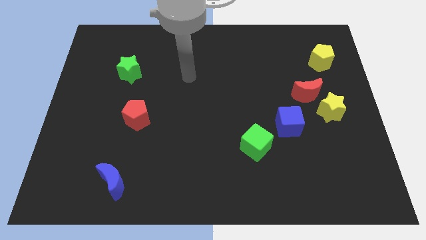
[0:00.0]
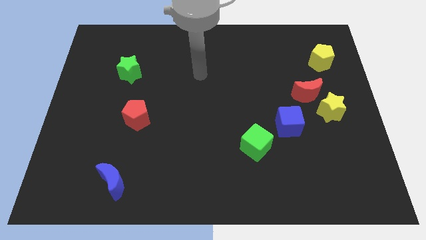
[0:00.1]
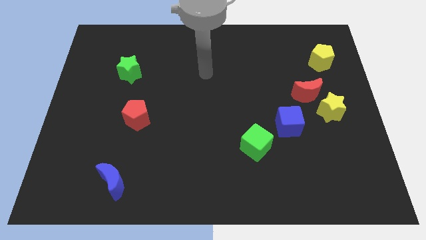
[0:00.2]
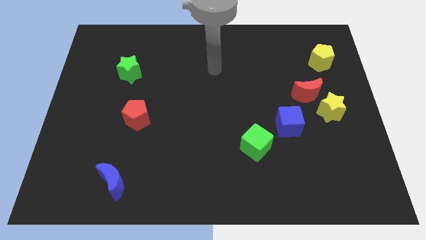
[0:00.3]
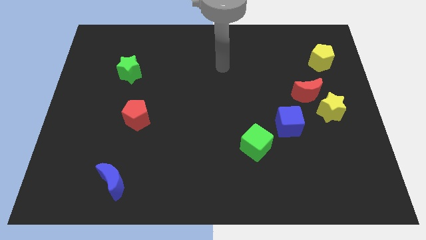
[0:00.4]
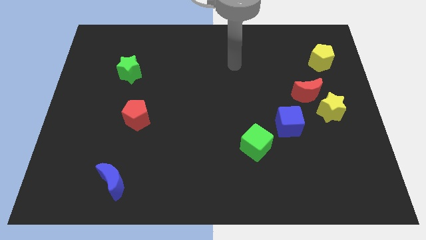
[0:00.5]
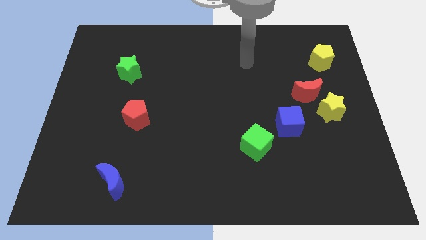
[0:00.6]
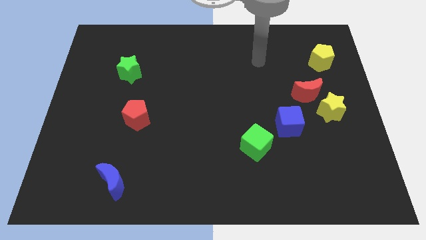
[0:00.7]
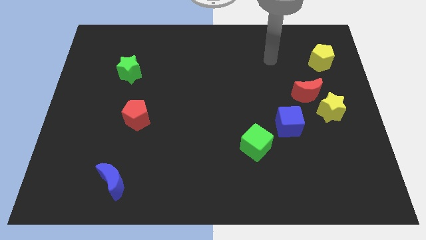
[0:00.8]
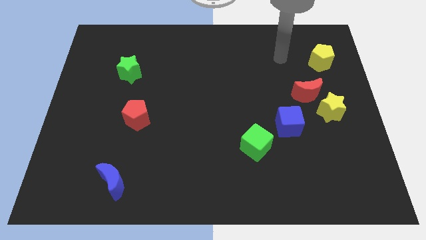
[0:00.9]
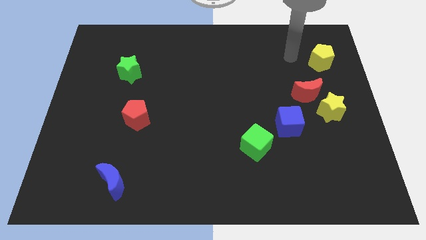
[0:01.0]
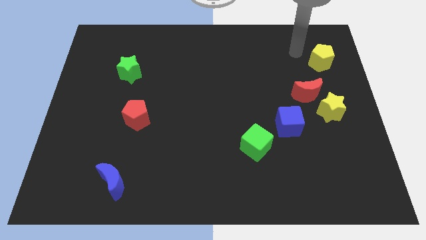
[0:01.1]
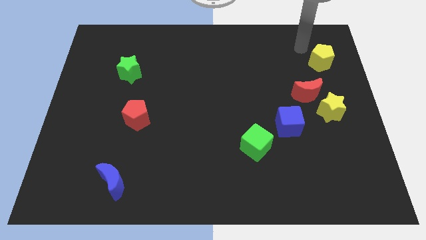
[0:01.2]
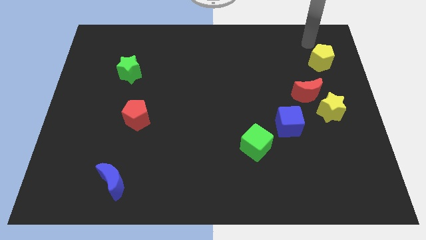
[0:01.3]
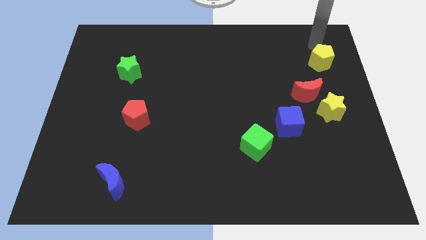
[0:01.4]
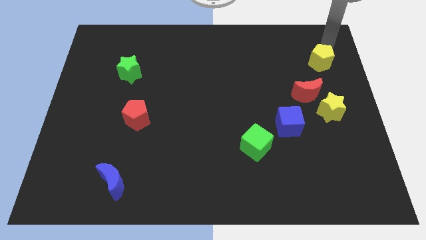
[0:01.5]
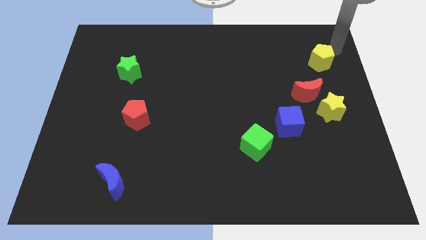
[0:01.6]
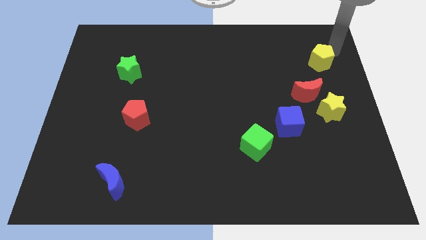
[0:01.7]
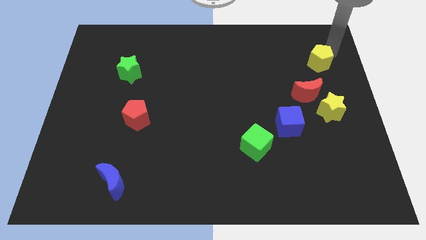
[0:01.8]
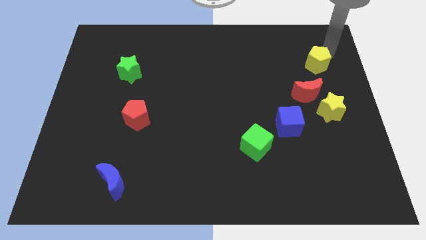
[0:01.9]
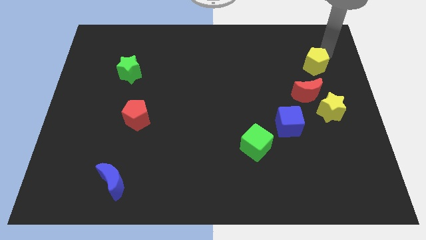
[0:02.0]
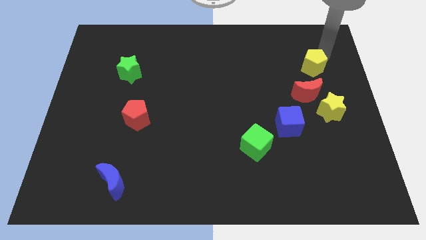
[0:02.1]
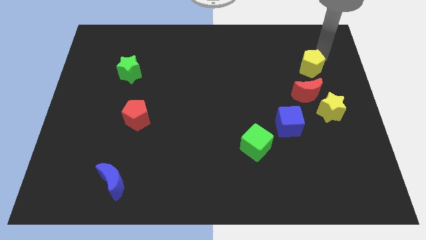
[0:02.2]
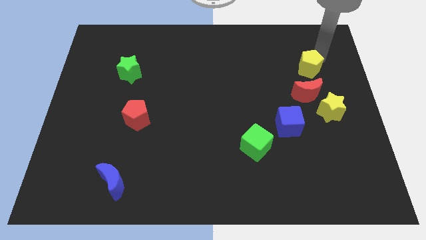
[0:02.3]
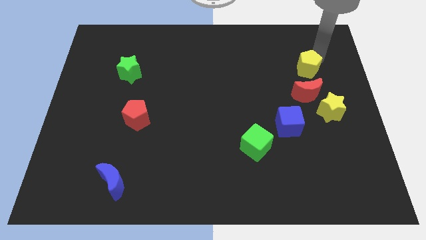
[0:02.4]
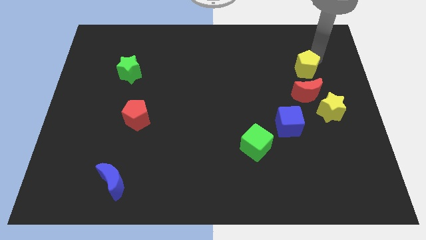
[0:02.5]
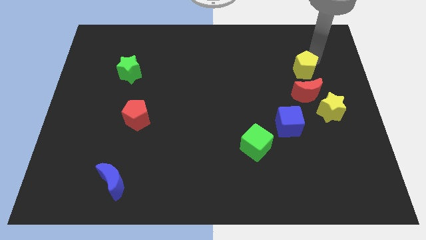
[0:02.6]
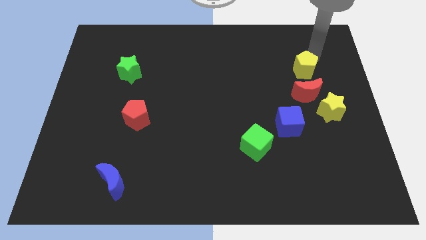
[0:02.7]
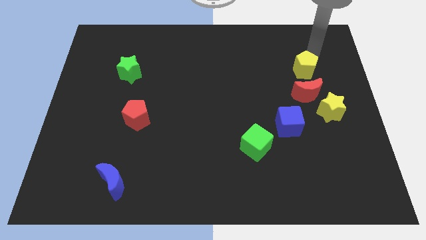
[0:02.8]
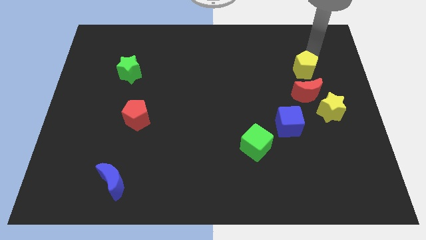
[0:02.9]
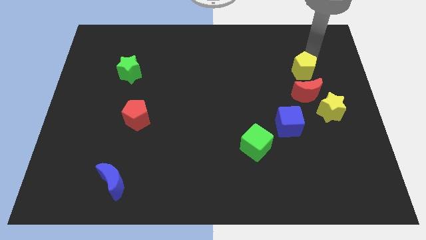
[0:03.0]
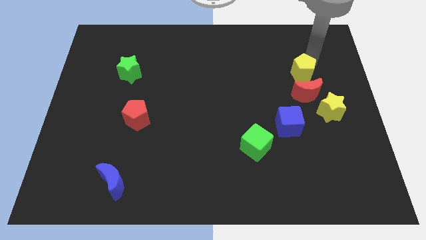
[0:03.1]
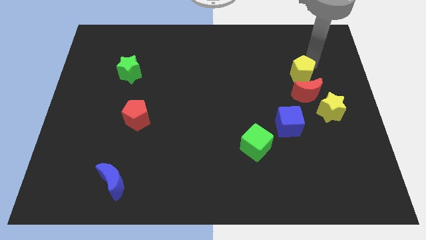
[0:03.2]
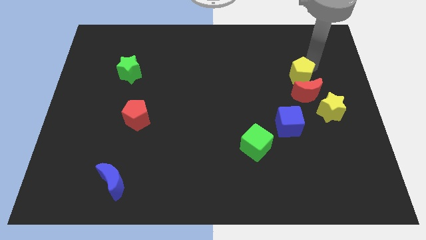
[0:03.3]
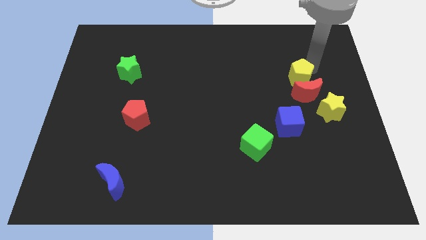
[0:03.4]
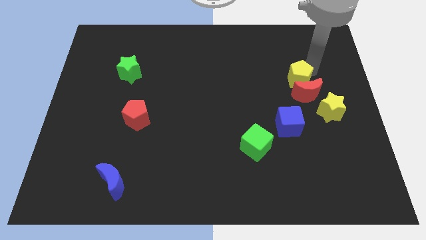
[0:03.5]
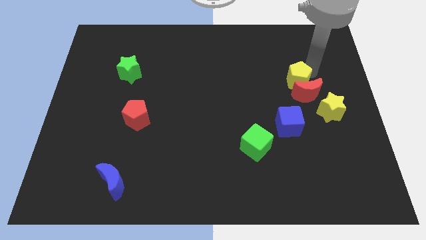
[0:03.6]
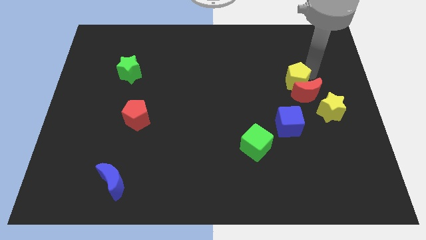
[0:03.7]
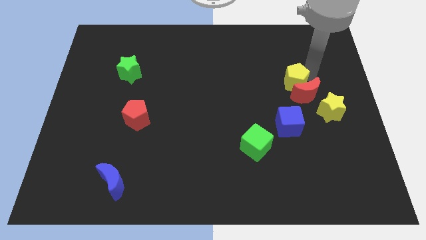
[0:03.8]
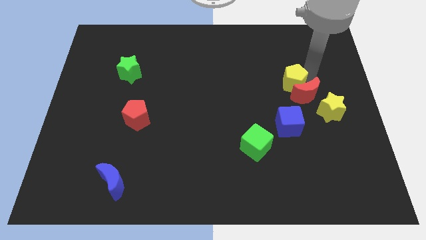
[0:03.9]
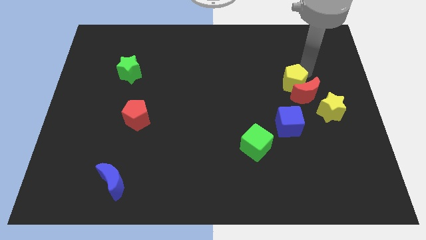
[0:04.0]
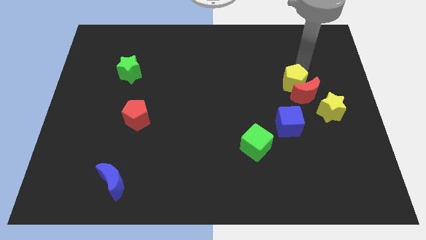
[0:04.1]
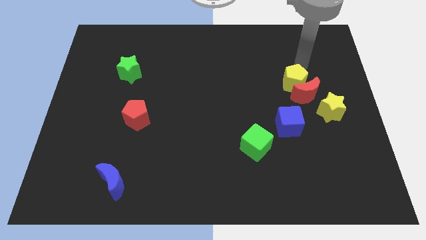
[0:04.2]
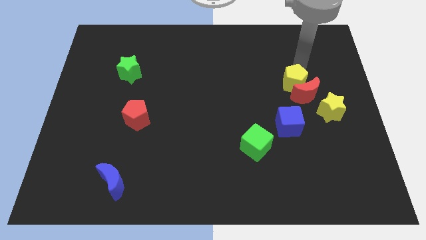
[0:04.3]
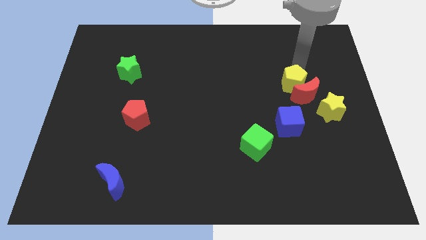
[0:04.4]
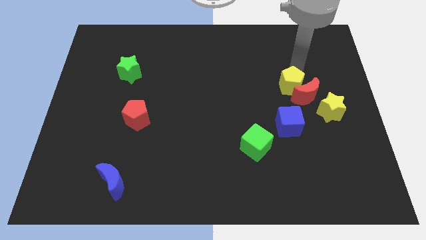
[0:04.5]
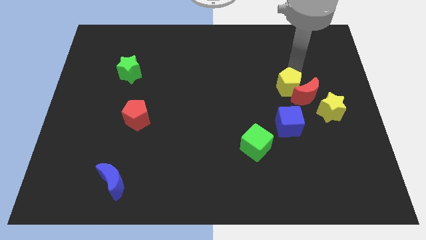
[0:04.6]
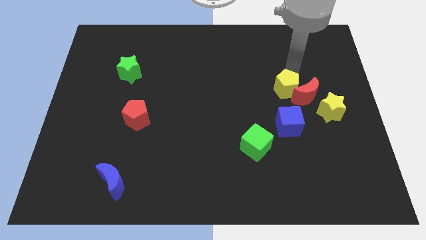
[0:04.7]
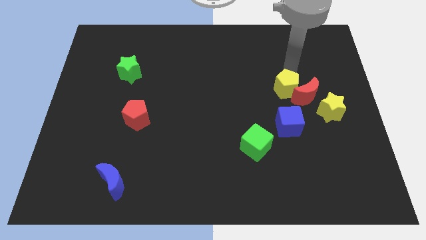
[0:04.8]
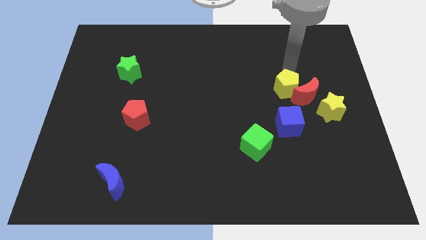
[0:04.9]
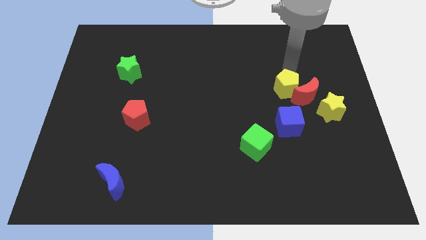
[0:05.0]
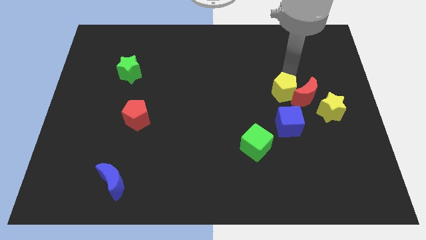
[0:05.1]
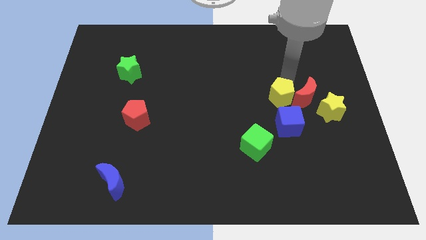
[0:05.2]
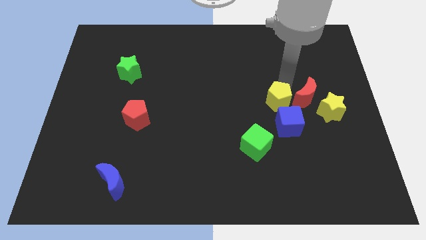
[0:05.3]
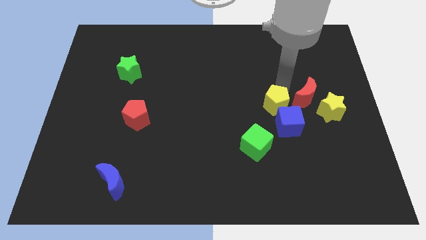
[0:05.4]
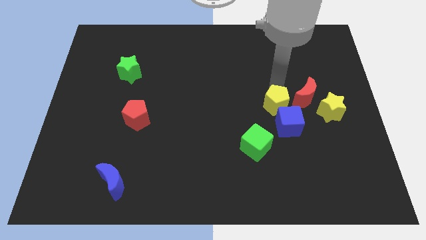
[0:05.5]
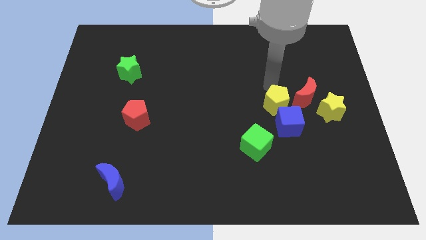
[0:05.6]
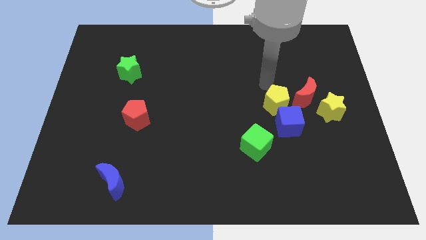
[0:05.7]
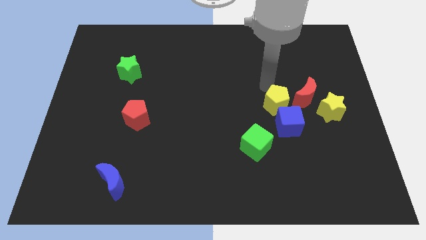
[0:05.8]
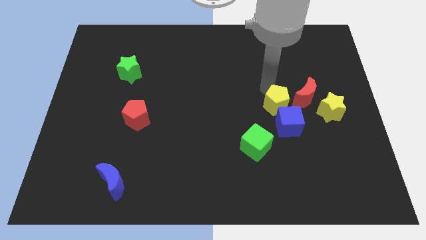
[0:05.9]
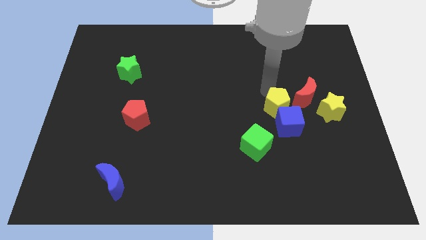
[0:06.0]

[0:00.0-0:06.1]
put the yellow pentagon next to the blue cube

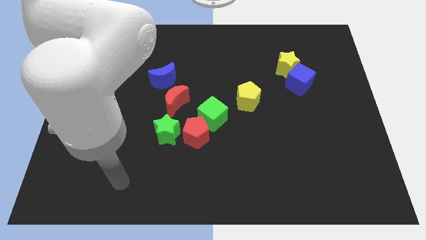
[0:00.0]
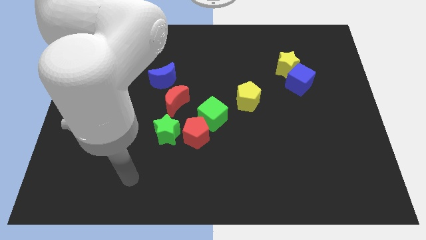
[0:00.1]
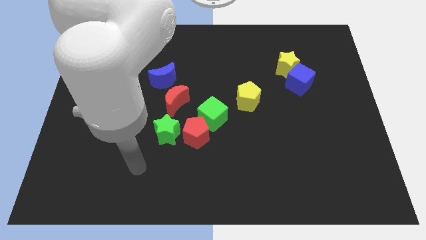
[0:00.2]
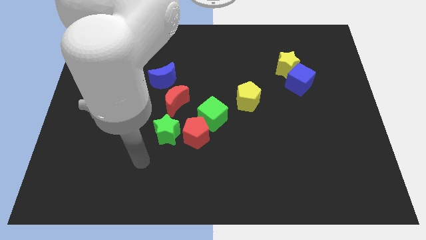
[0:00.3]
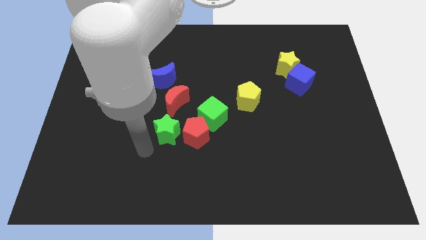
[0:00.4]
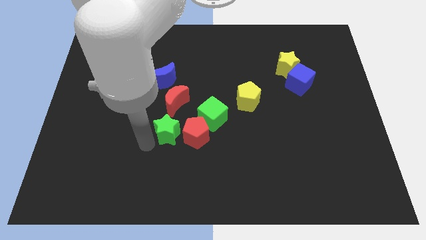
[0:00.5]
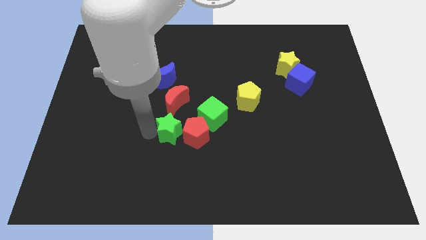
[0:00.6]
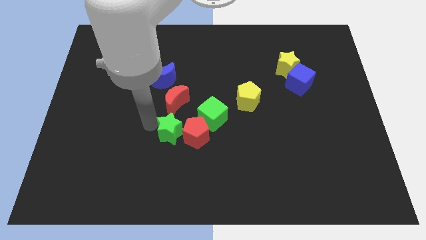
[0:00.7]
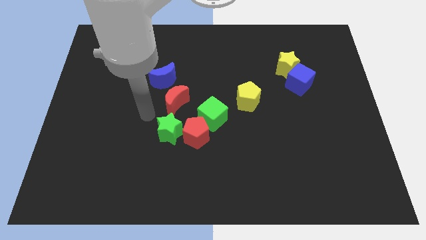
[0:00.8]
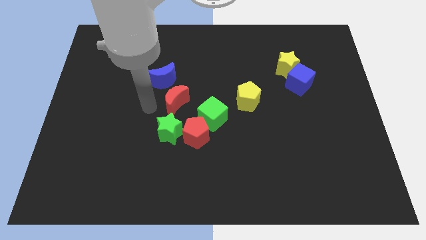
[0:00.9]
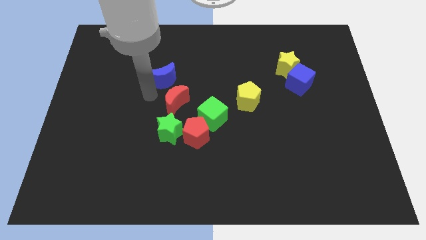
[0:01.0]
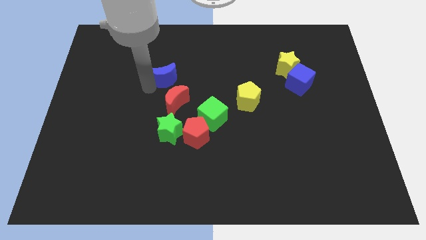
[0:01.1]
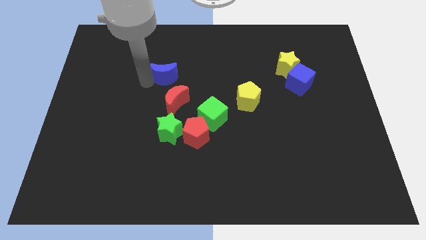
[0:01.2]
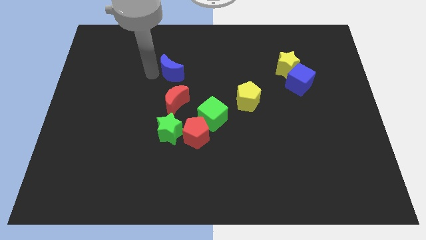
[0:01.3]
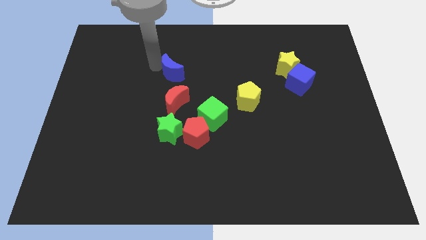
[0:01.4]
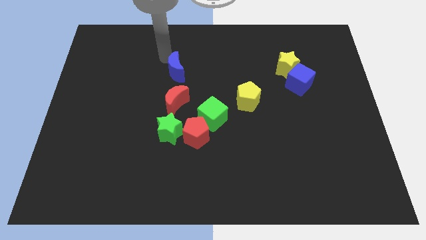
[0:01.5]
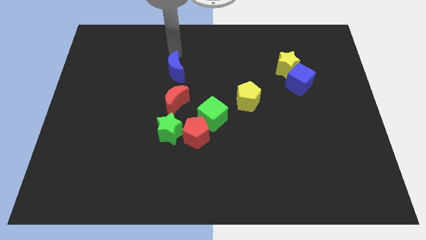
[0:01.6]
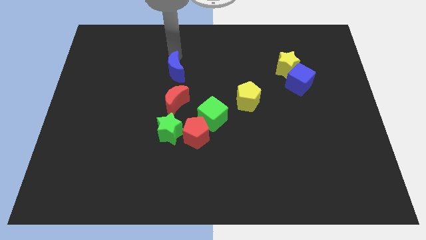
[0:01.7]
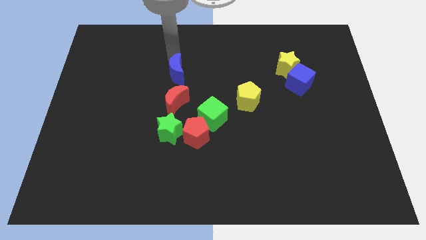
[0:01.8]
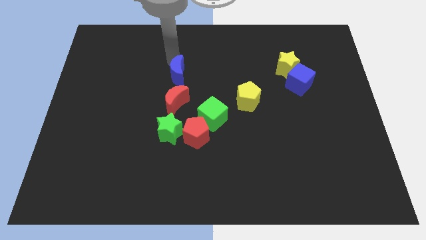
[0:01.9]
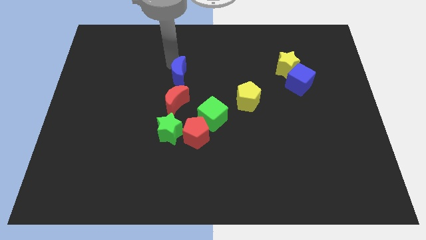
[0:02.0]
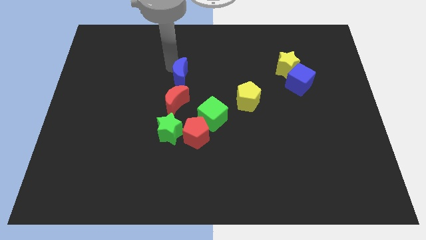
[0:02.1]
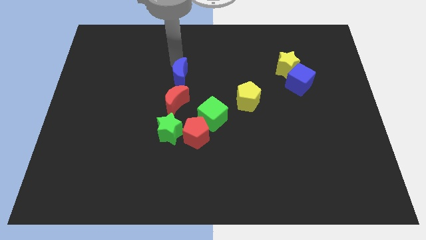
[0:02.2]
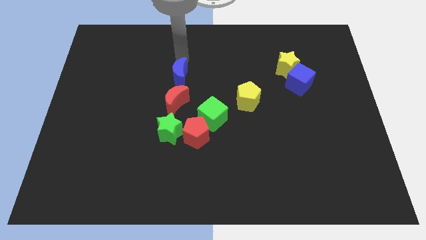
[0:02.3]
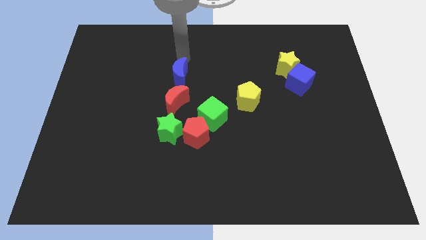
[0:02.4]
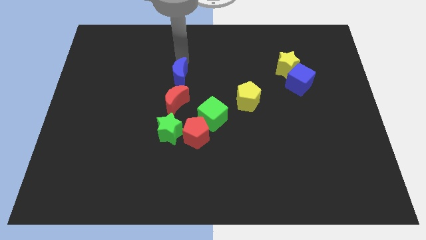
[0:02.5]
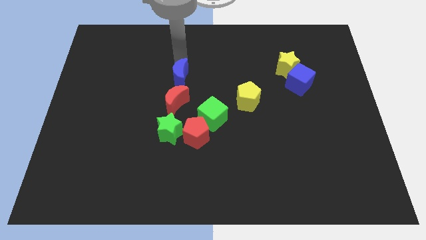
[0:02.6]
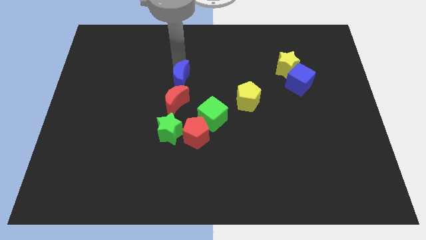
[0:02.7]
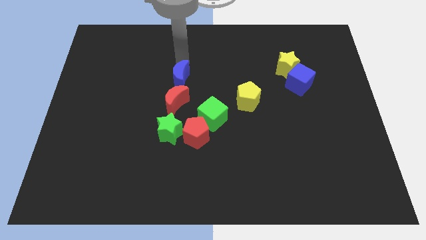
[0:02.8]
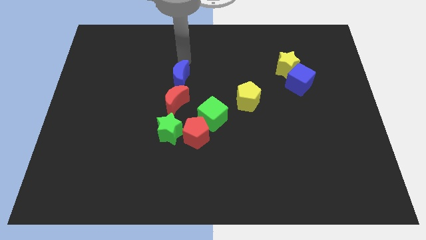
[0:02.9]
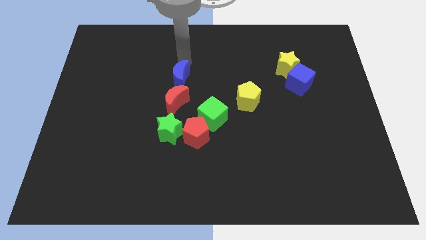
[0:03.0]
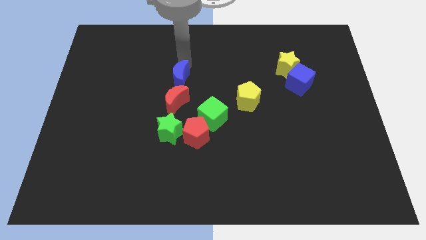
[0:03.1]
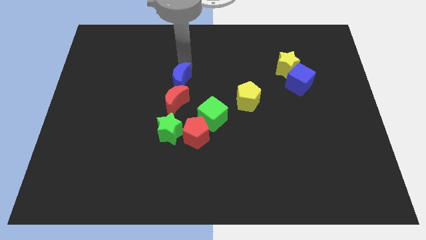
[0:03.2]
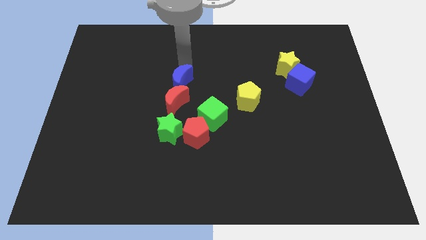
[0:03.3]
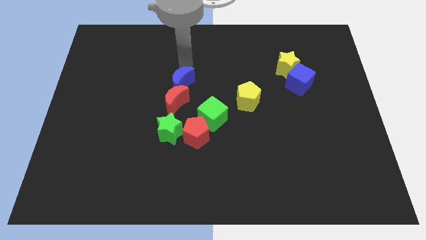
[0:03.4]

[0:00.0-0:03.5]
put the blue moon towards the red moon
